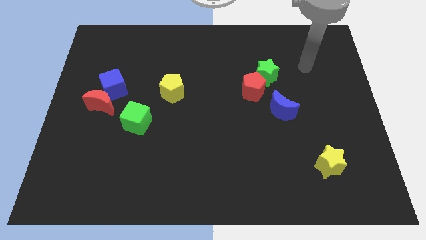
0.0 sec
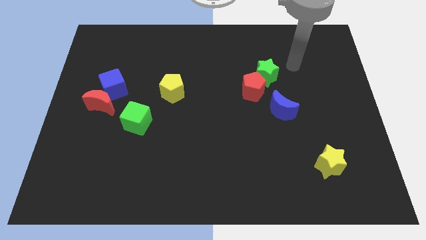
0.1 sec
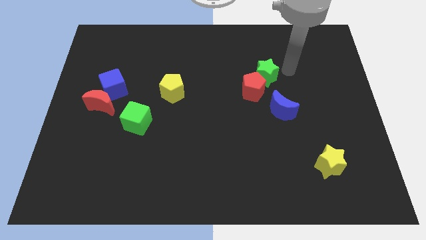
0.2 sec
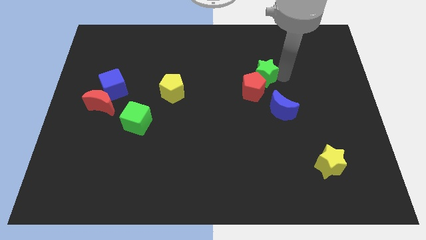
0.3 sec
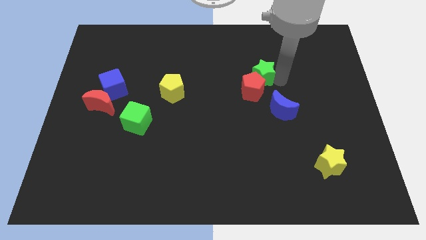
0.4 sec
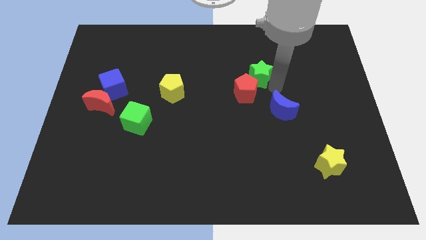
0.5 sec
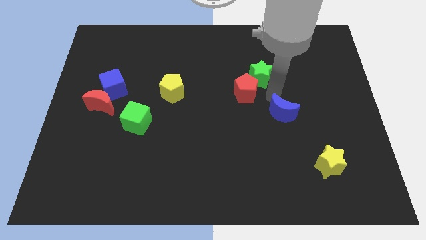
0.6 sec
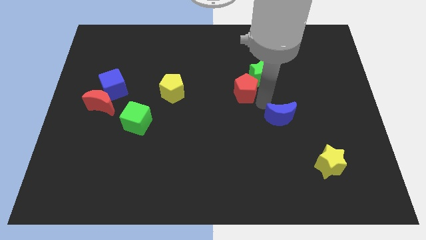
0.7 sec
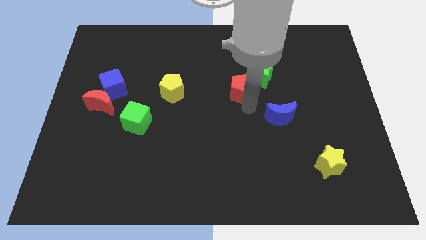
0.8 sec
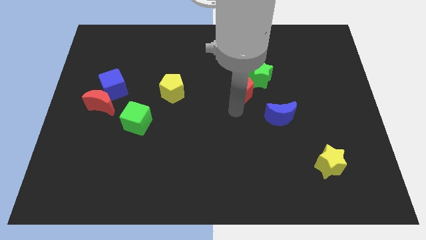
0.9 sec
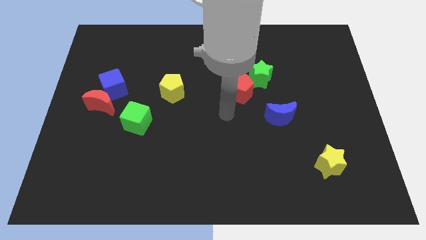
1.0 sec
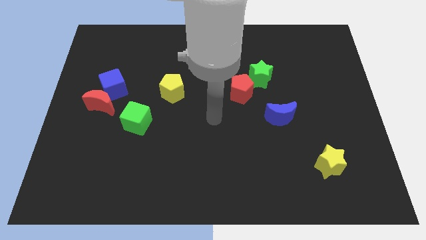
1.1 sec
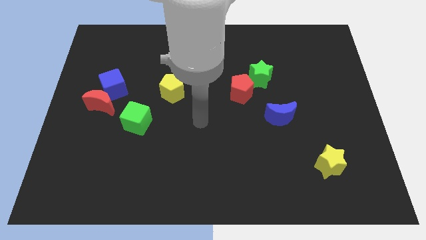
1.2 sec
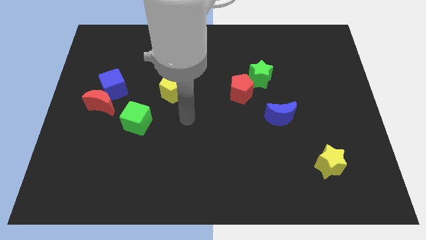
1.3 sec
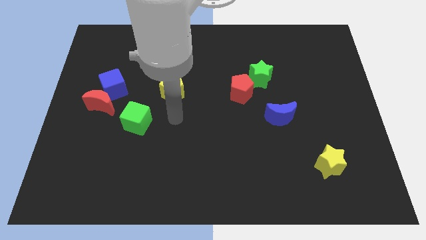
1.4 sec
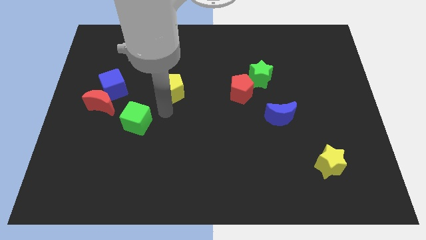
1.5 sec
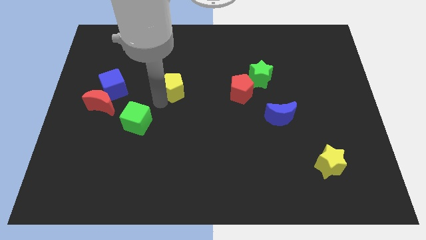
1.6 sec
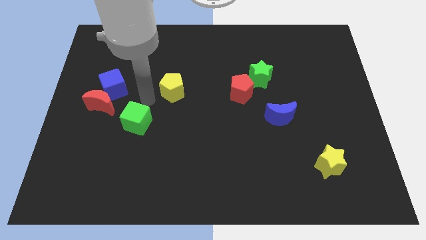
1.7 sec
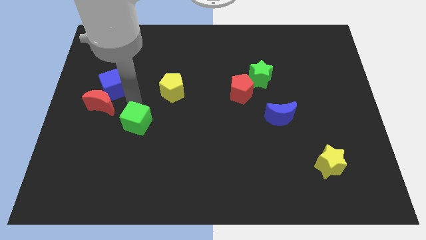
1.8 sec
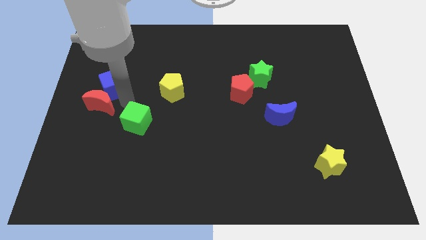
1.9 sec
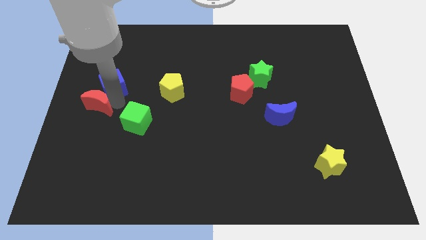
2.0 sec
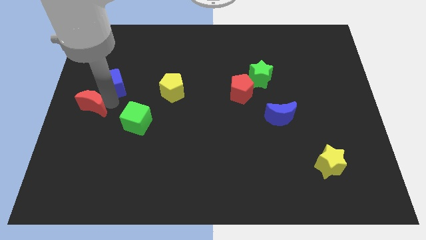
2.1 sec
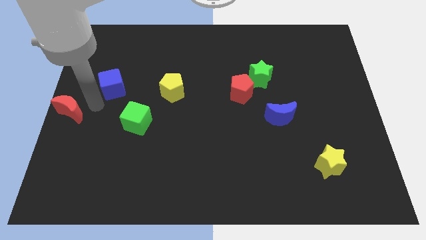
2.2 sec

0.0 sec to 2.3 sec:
move the blue cube away from the red moon

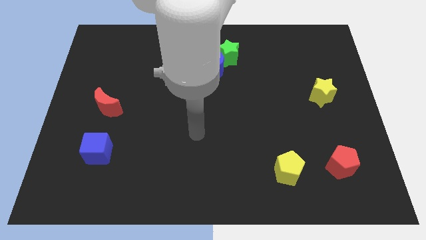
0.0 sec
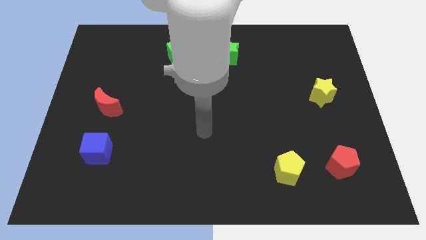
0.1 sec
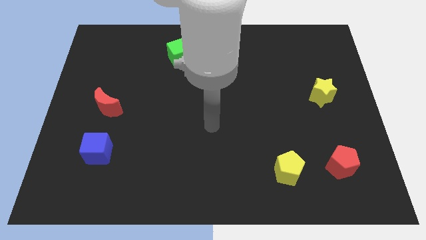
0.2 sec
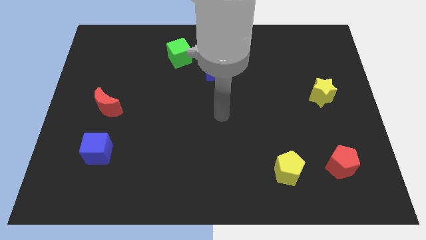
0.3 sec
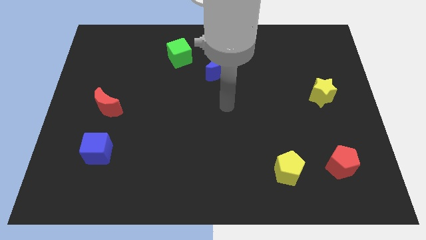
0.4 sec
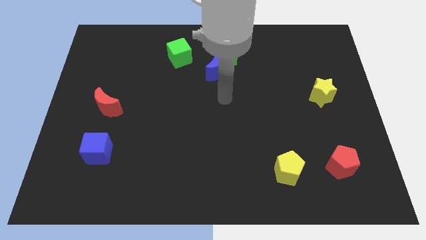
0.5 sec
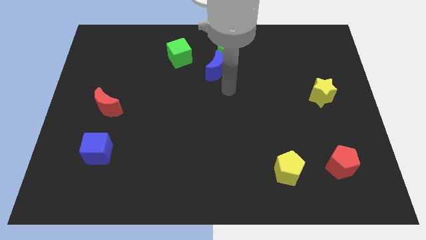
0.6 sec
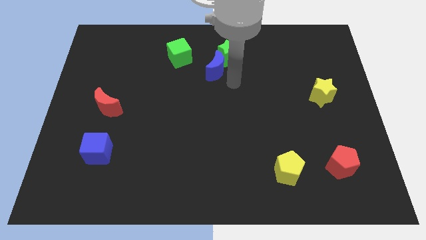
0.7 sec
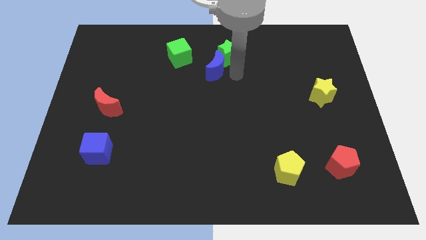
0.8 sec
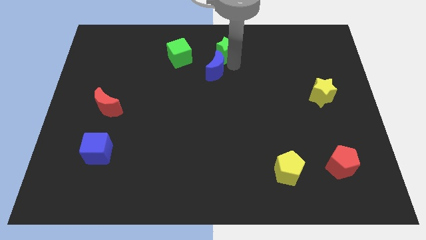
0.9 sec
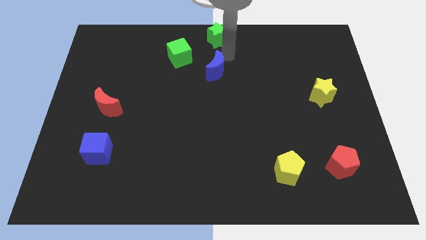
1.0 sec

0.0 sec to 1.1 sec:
separate the blue moon from the green star

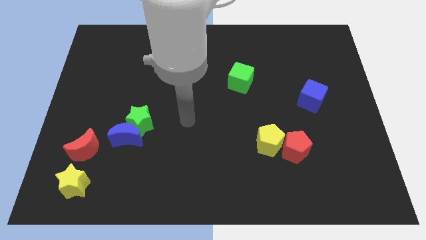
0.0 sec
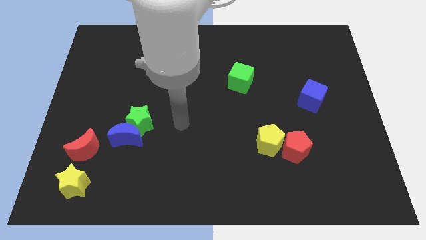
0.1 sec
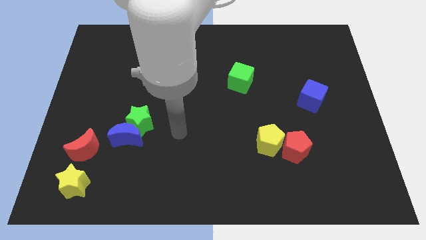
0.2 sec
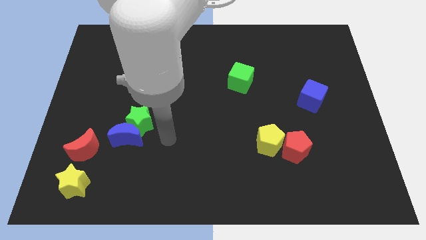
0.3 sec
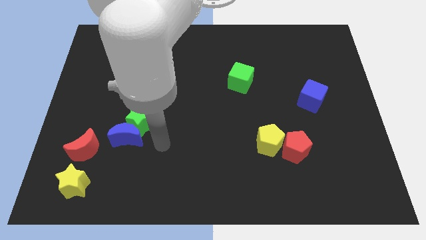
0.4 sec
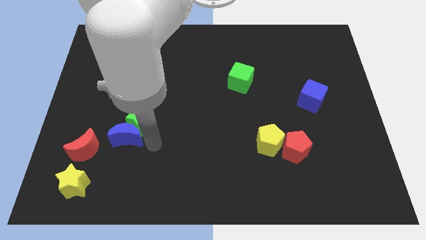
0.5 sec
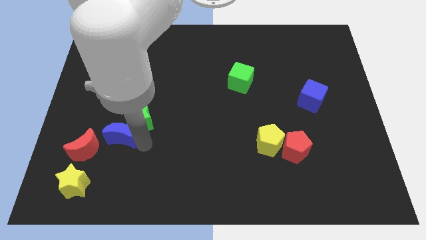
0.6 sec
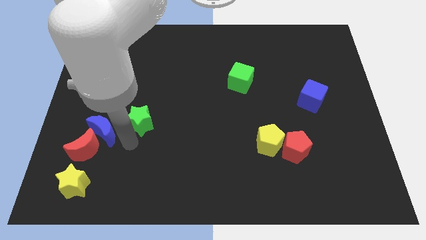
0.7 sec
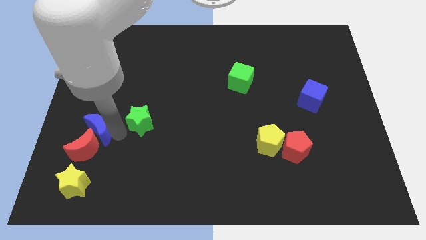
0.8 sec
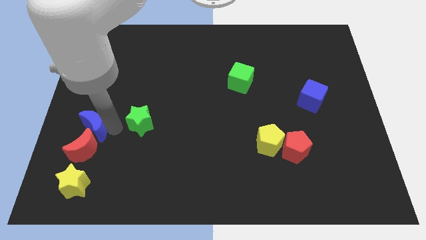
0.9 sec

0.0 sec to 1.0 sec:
pull the green star apart from the blue moon

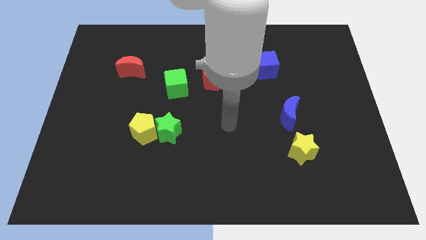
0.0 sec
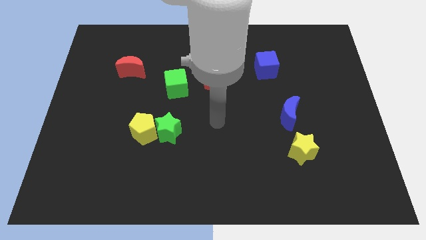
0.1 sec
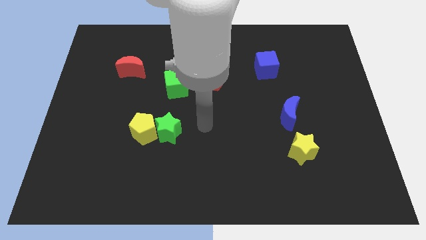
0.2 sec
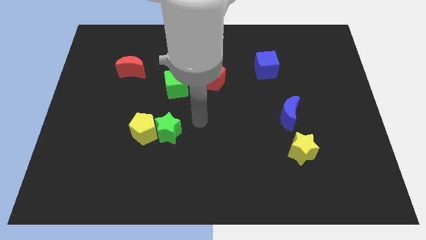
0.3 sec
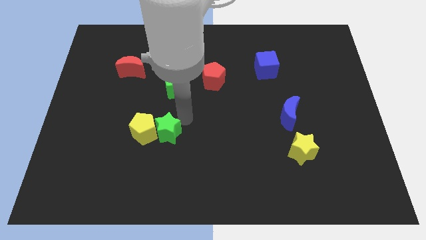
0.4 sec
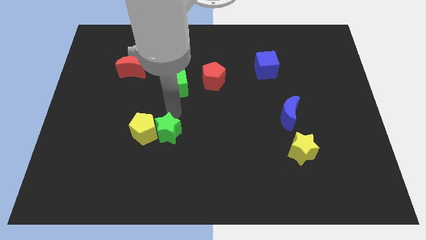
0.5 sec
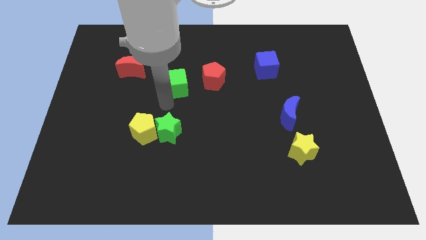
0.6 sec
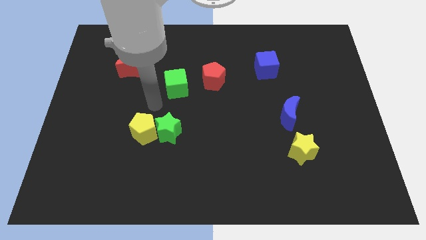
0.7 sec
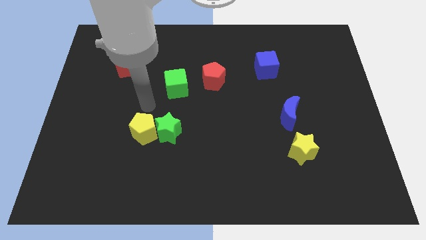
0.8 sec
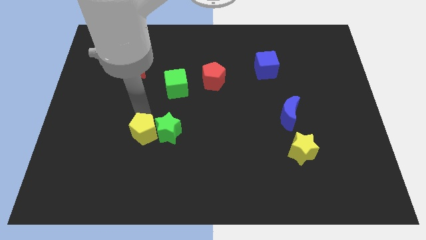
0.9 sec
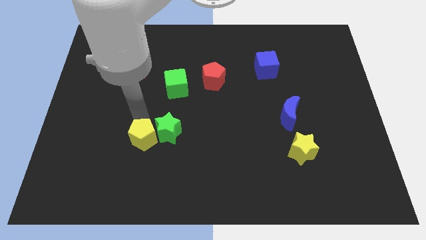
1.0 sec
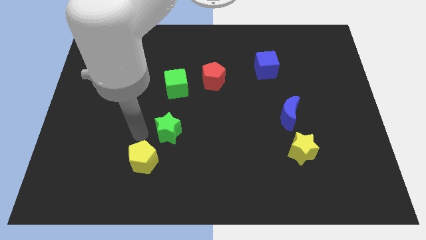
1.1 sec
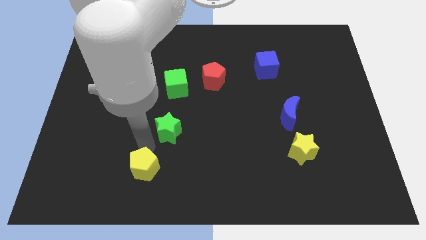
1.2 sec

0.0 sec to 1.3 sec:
move the green star away from the yellow pentagon

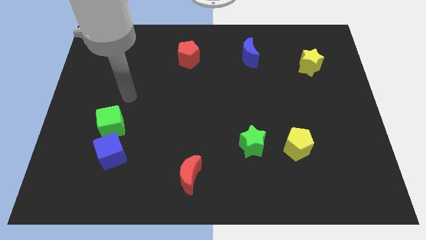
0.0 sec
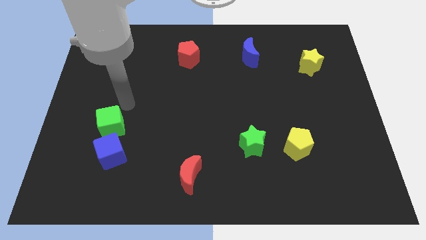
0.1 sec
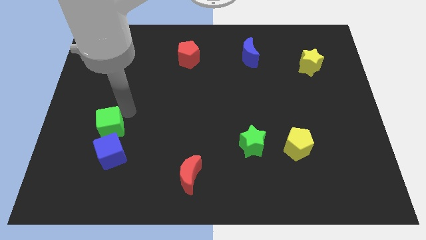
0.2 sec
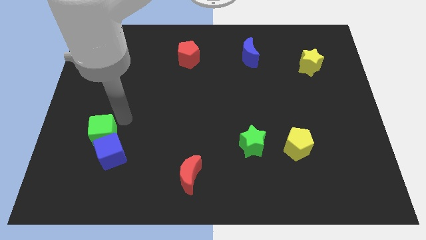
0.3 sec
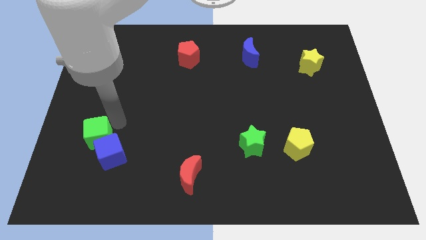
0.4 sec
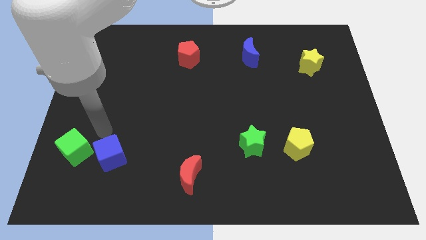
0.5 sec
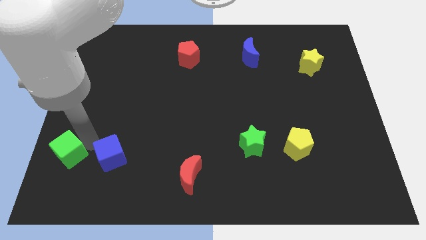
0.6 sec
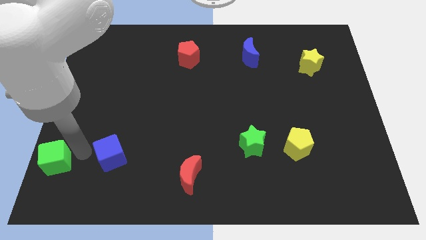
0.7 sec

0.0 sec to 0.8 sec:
separate the blue cube from the green cube

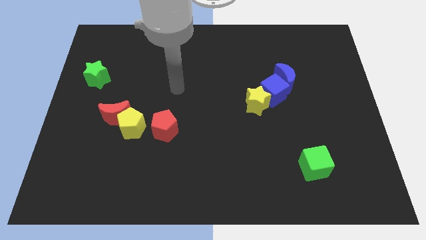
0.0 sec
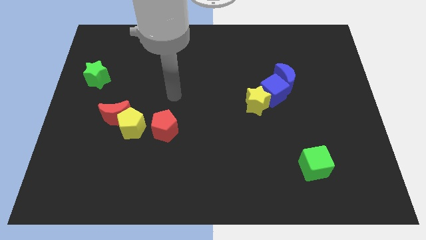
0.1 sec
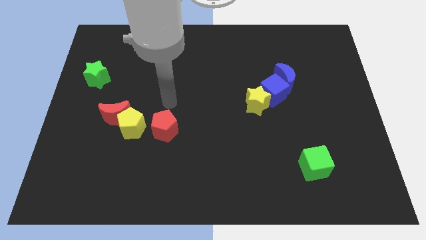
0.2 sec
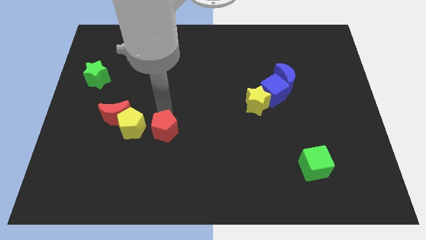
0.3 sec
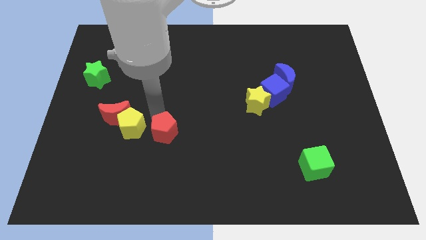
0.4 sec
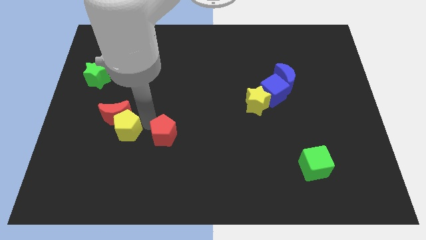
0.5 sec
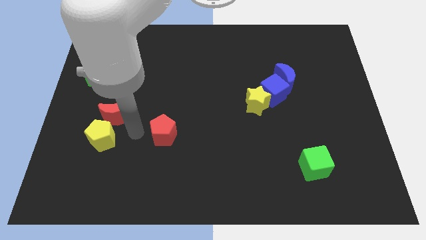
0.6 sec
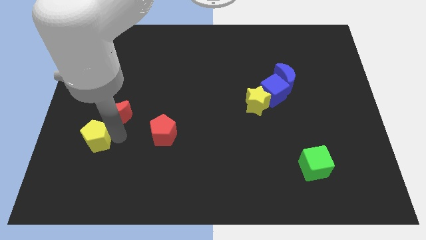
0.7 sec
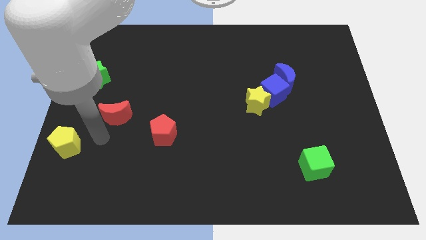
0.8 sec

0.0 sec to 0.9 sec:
separate the red moon from the yellow pentagon

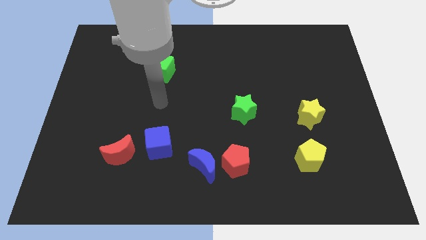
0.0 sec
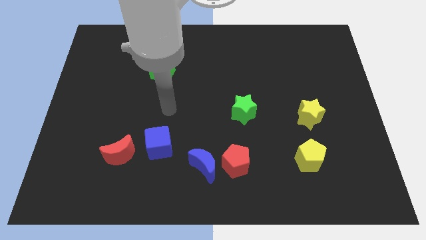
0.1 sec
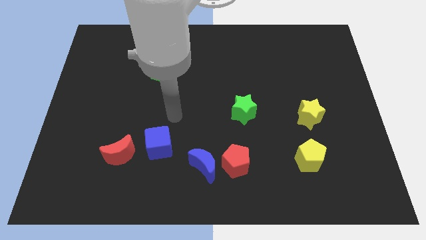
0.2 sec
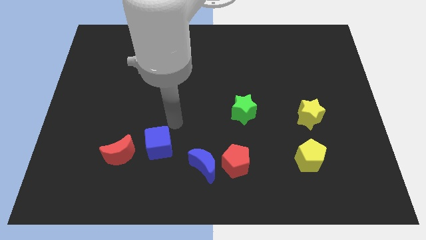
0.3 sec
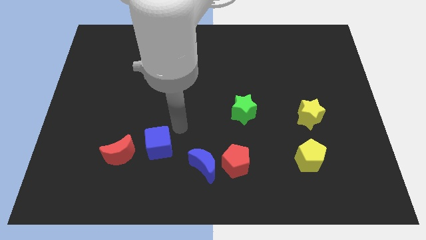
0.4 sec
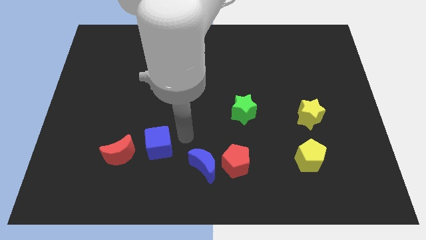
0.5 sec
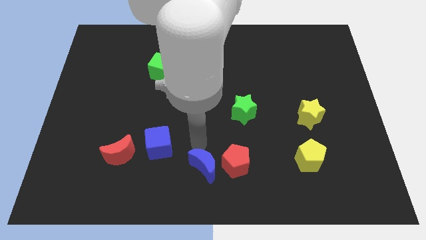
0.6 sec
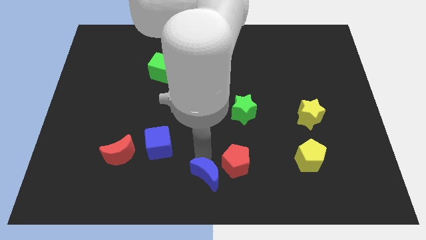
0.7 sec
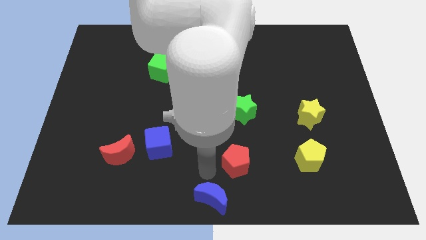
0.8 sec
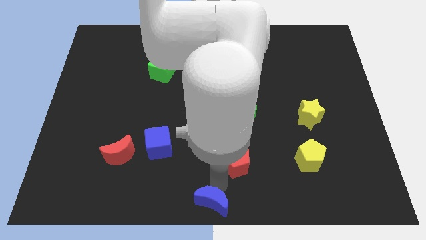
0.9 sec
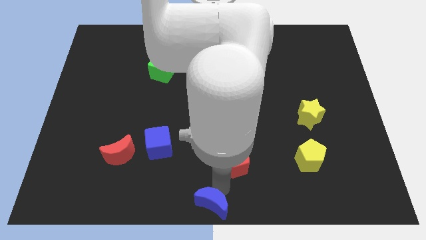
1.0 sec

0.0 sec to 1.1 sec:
pull the red pentagon apart from the blue moon

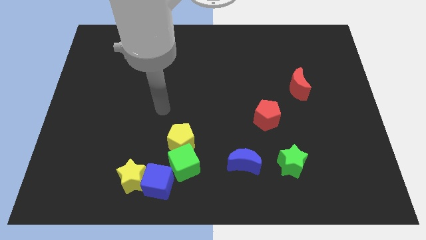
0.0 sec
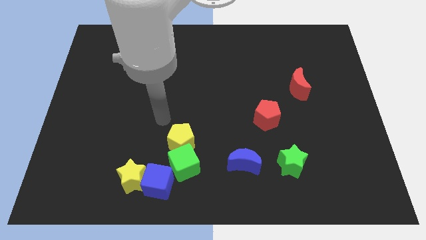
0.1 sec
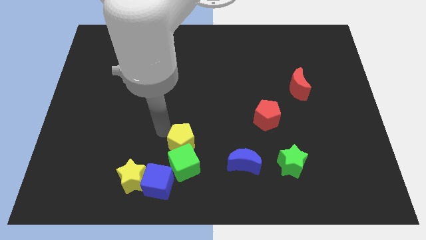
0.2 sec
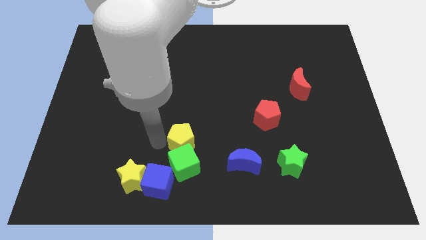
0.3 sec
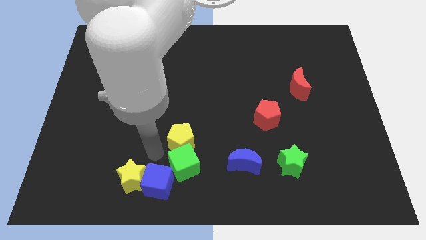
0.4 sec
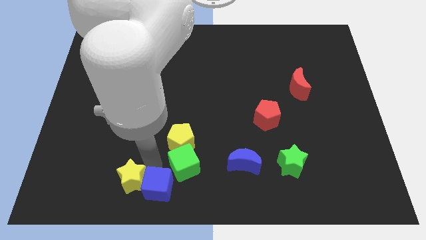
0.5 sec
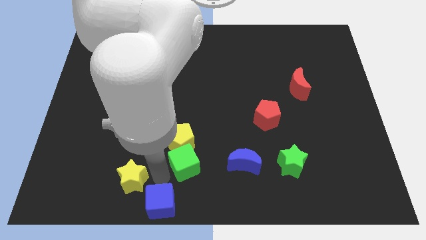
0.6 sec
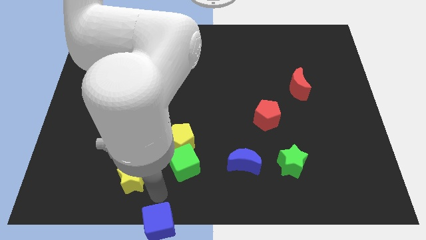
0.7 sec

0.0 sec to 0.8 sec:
pull the yellow star apart from the blue cube
